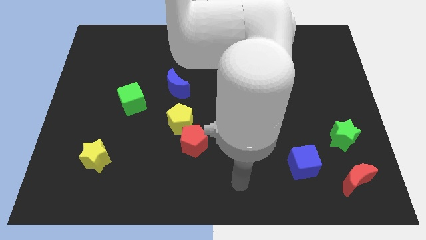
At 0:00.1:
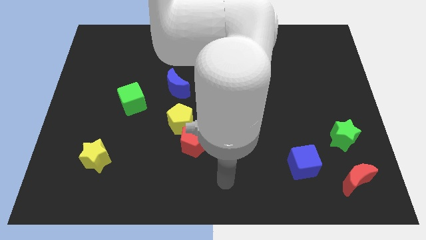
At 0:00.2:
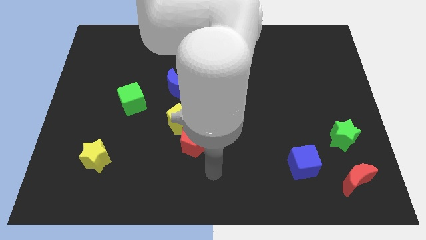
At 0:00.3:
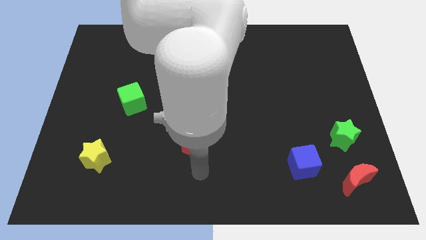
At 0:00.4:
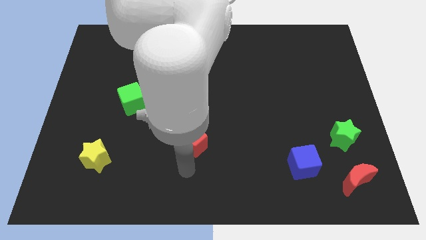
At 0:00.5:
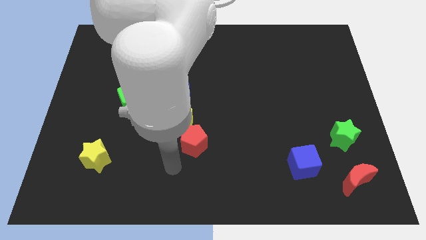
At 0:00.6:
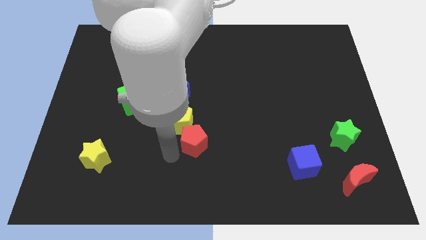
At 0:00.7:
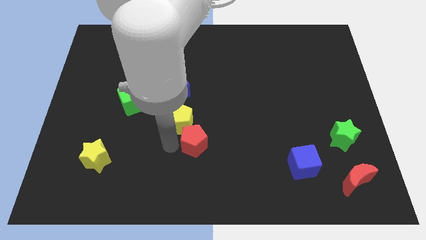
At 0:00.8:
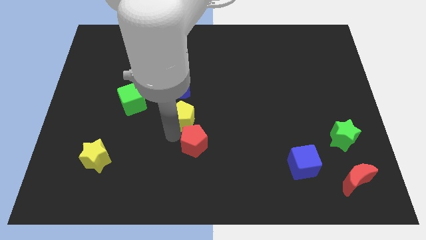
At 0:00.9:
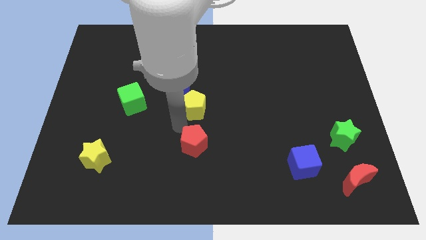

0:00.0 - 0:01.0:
move the red pentagon away from the yellow pentagon

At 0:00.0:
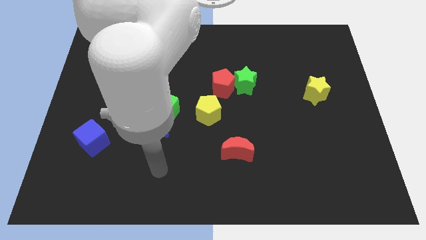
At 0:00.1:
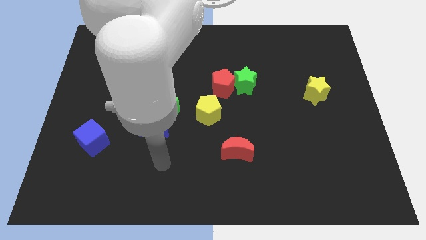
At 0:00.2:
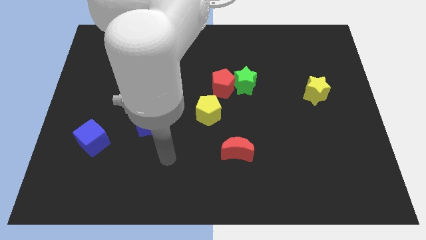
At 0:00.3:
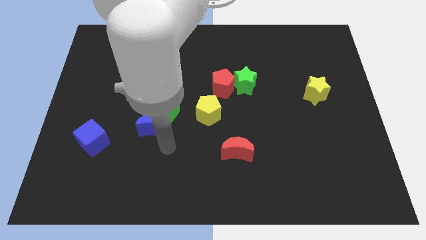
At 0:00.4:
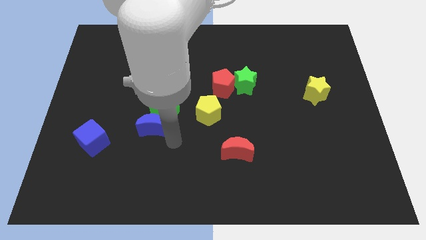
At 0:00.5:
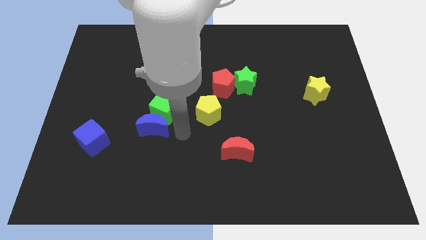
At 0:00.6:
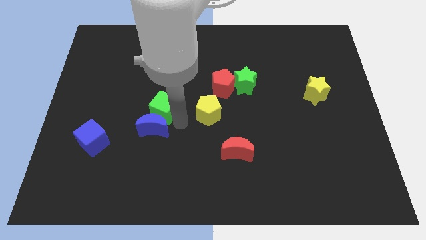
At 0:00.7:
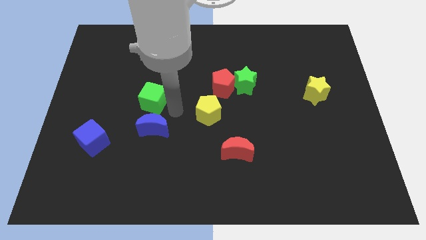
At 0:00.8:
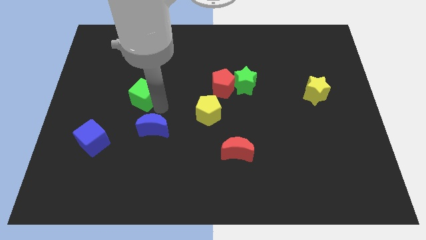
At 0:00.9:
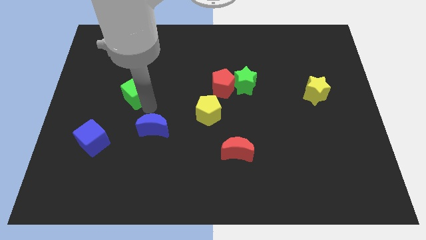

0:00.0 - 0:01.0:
pull the blue moon apart from the green cube

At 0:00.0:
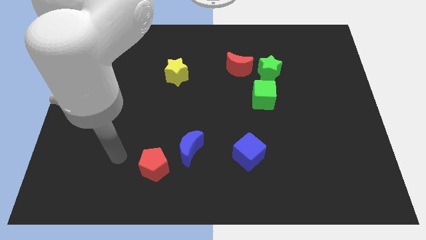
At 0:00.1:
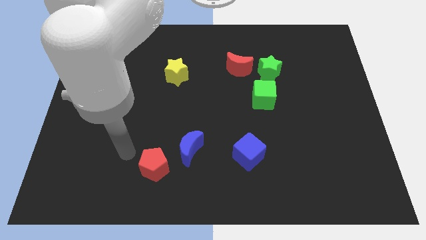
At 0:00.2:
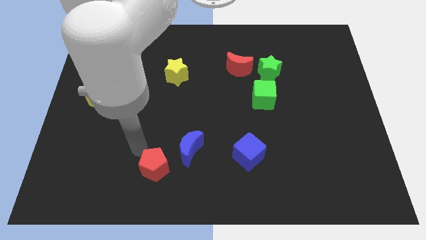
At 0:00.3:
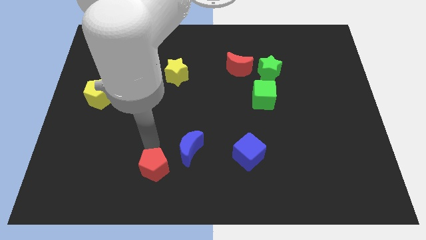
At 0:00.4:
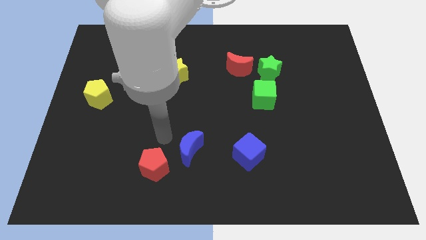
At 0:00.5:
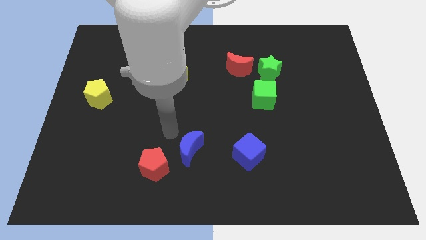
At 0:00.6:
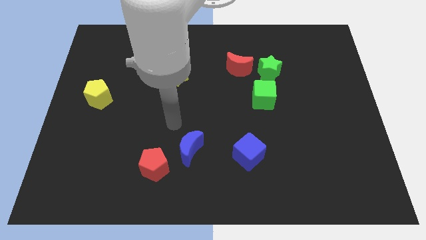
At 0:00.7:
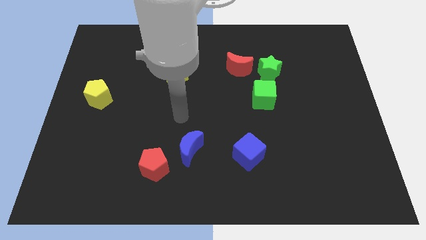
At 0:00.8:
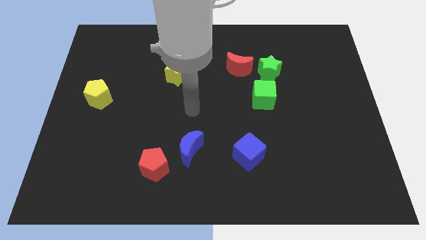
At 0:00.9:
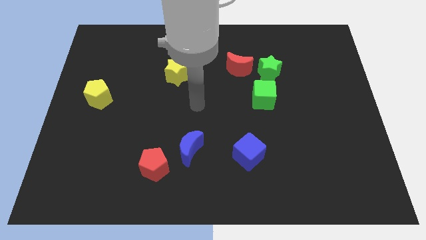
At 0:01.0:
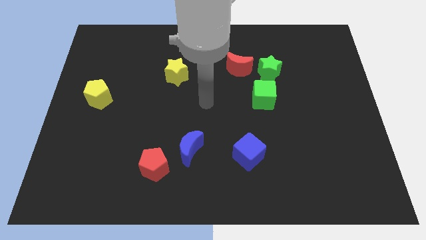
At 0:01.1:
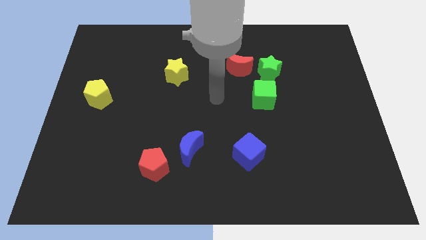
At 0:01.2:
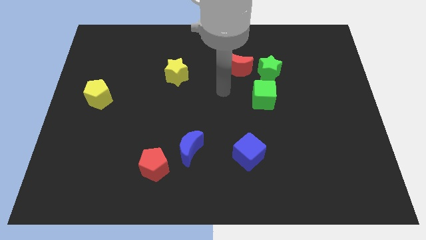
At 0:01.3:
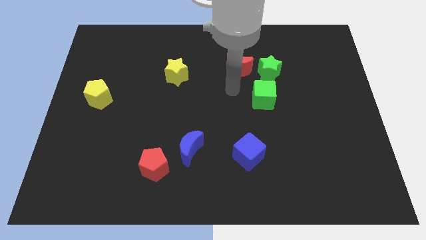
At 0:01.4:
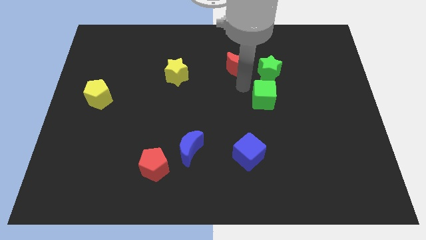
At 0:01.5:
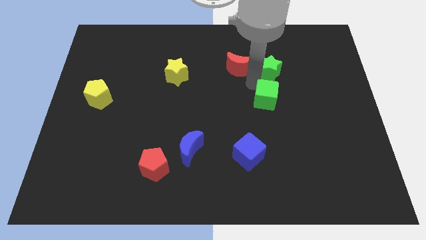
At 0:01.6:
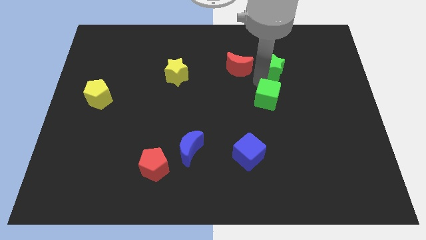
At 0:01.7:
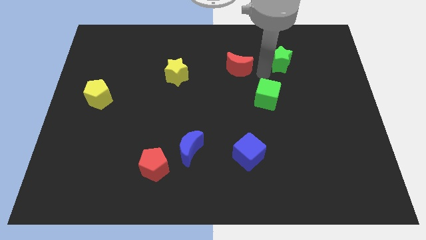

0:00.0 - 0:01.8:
separate the red moon from the green star

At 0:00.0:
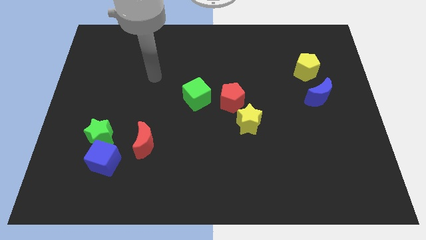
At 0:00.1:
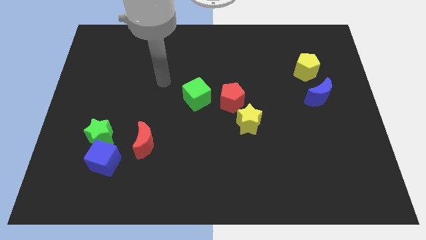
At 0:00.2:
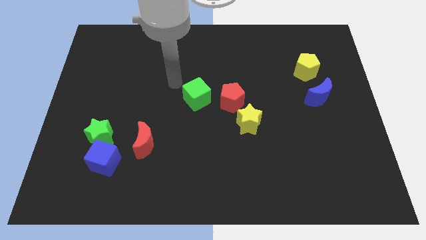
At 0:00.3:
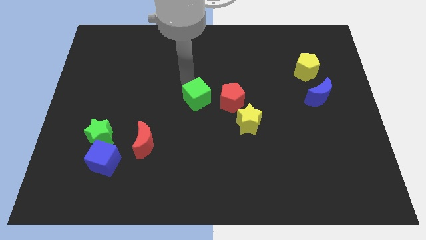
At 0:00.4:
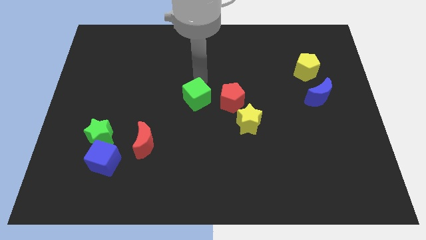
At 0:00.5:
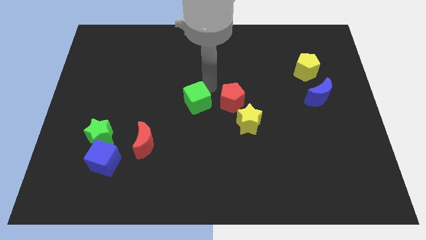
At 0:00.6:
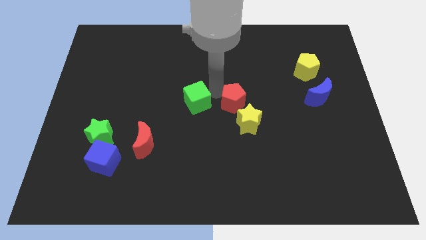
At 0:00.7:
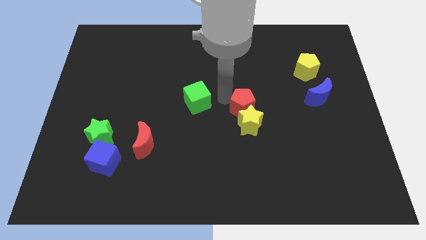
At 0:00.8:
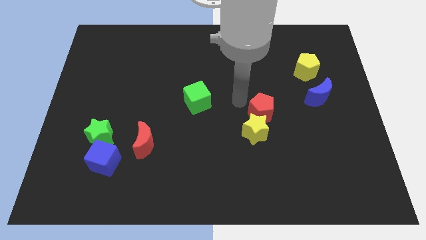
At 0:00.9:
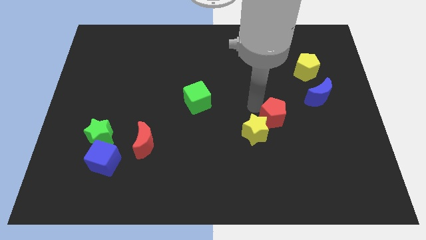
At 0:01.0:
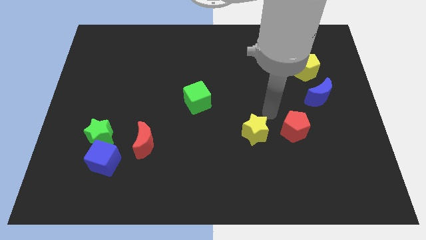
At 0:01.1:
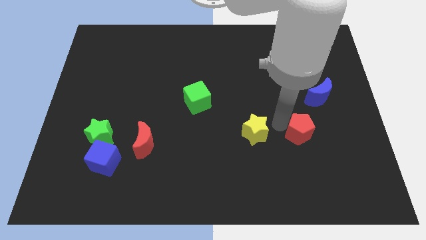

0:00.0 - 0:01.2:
pull the yellow star apart from the red pentagon

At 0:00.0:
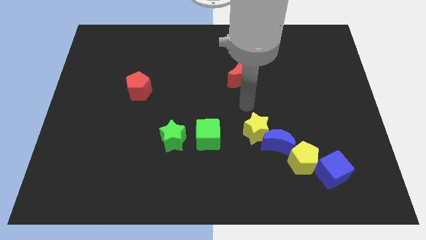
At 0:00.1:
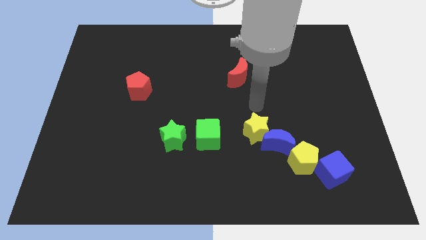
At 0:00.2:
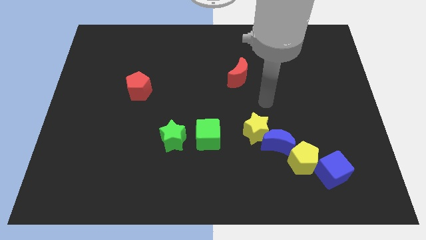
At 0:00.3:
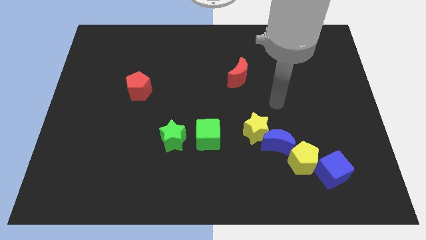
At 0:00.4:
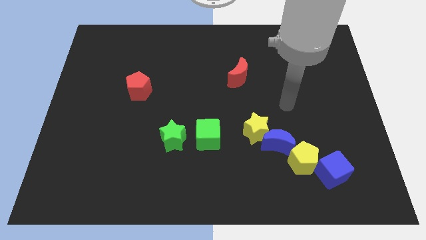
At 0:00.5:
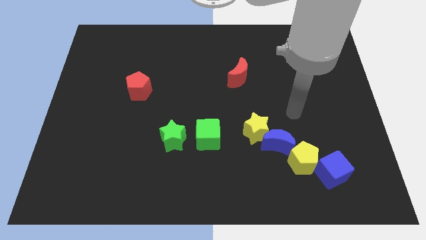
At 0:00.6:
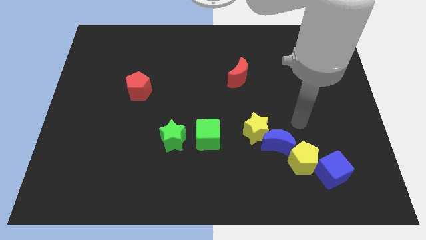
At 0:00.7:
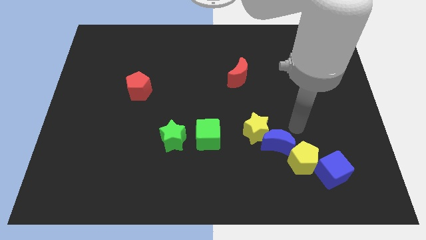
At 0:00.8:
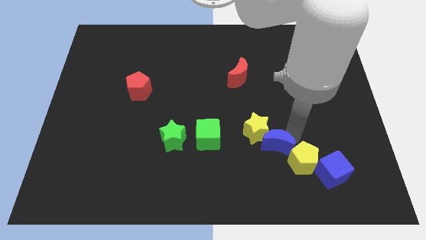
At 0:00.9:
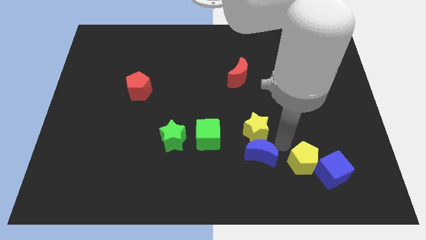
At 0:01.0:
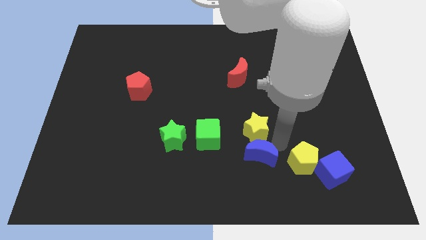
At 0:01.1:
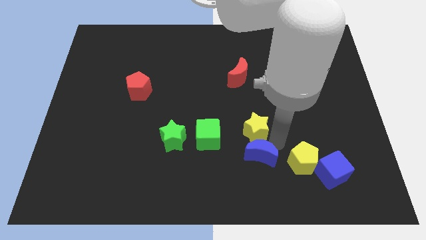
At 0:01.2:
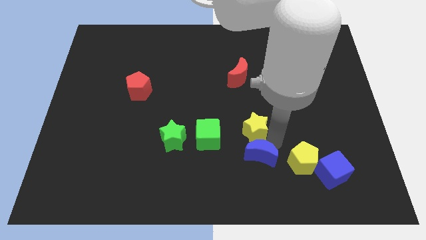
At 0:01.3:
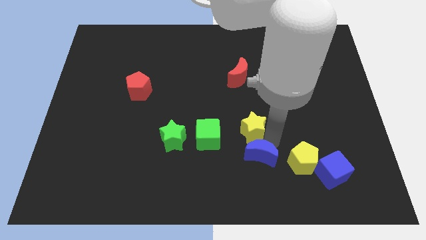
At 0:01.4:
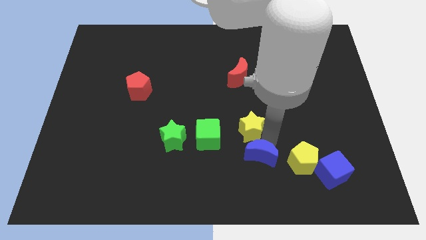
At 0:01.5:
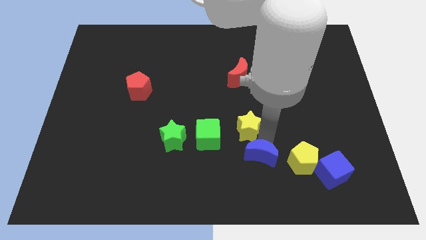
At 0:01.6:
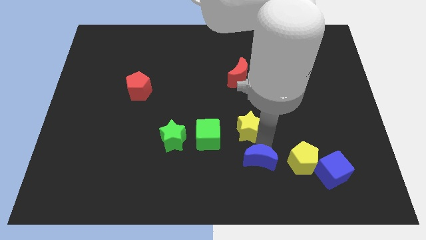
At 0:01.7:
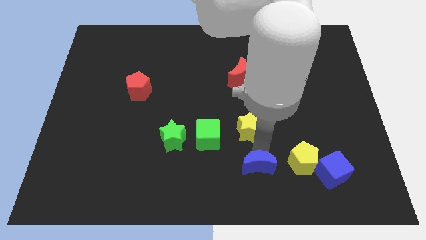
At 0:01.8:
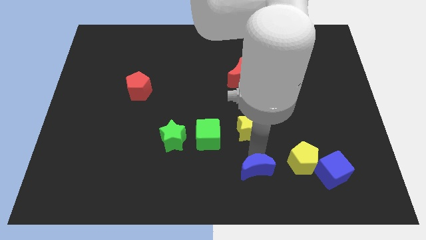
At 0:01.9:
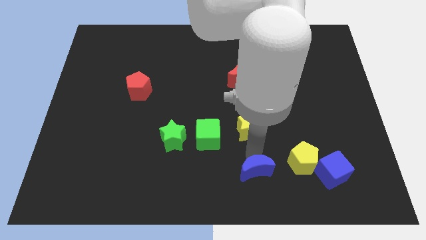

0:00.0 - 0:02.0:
pull the yellow star apart from the blue moon

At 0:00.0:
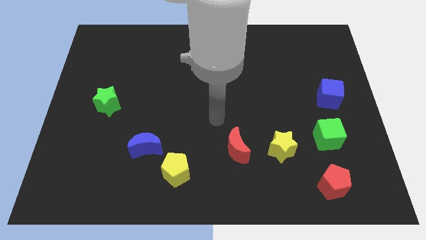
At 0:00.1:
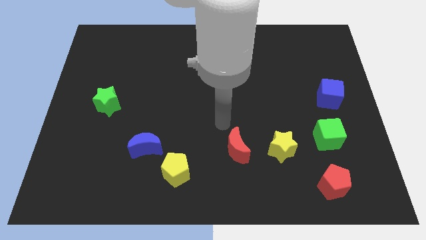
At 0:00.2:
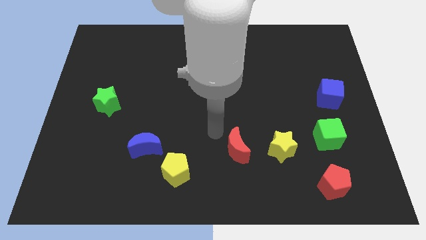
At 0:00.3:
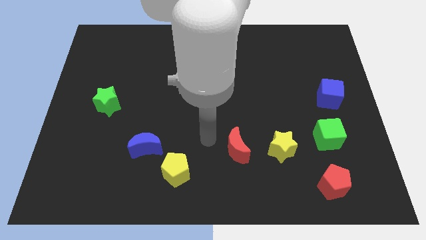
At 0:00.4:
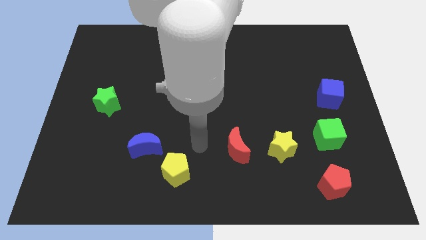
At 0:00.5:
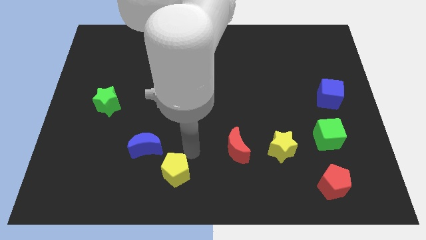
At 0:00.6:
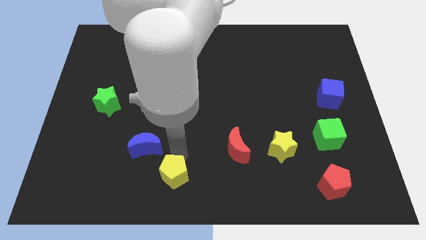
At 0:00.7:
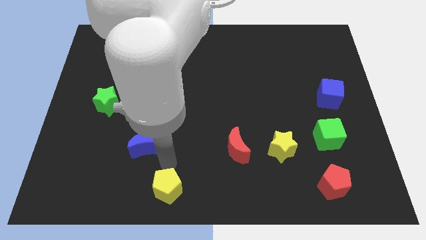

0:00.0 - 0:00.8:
separate the blue moon from the yellow pentagon

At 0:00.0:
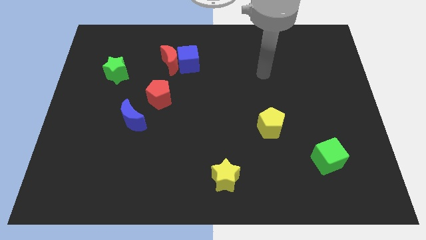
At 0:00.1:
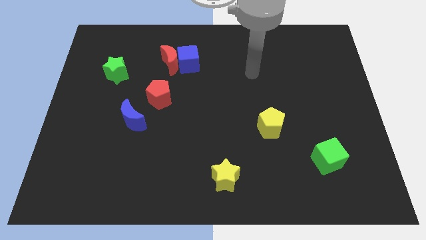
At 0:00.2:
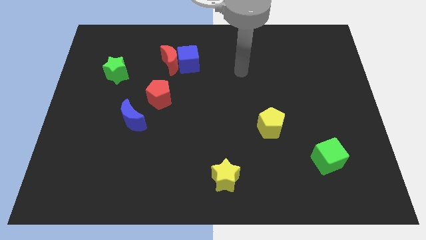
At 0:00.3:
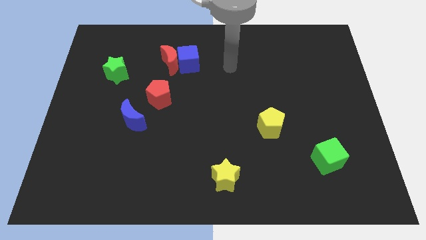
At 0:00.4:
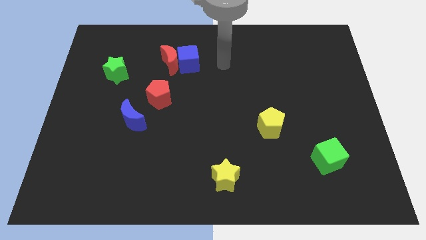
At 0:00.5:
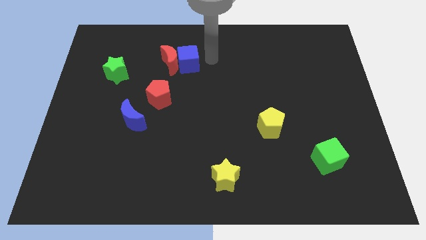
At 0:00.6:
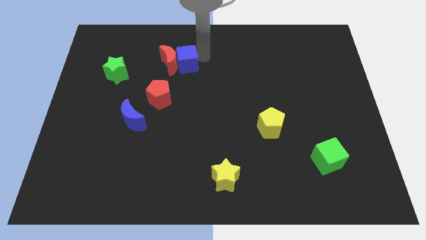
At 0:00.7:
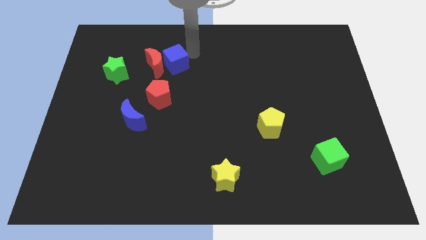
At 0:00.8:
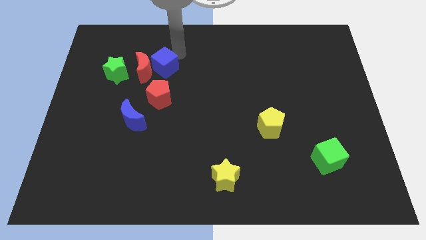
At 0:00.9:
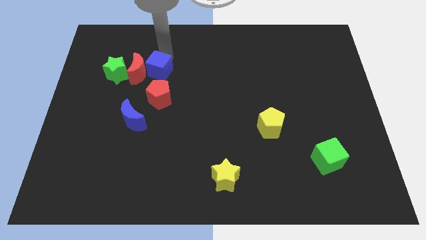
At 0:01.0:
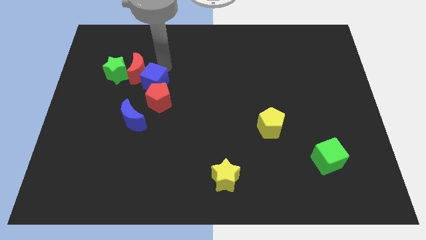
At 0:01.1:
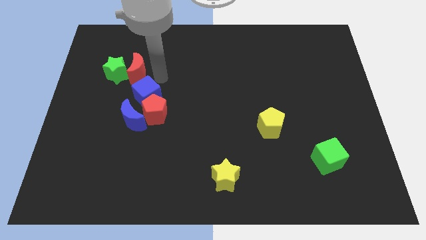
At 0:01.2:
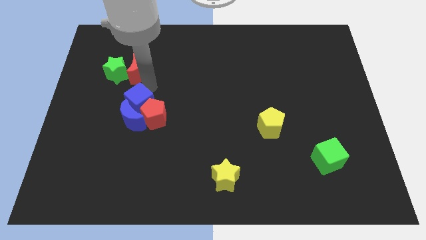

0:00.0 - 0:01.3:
move the red moon away from the blue cube
